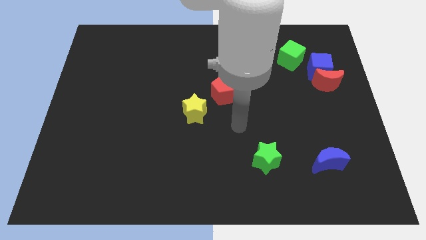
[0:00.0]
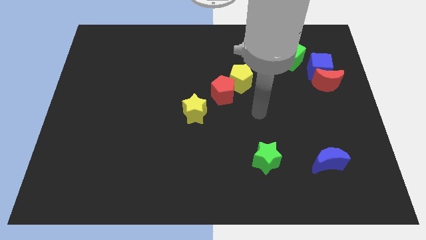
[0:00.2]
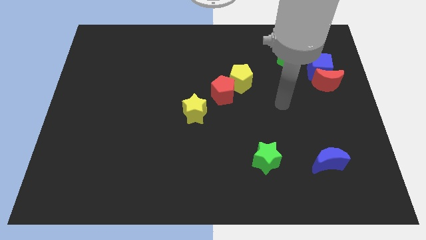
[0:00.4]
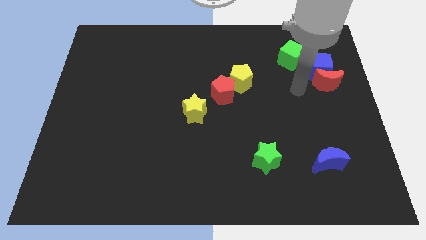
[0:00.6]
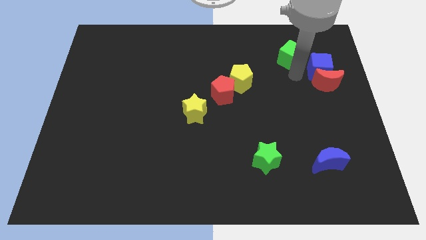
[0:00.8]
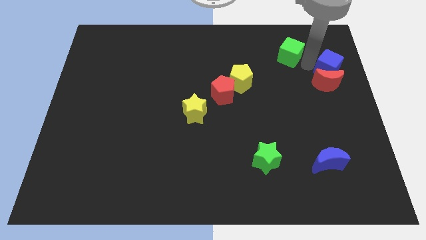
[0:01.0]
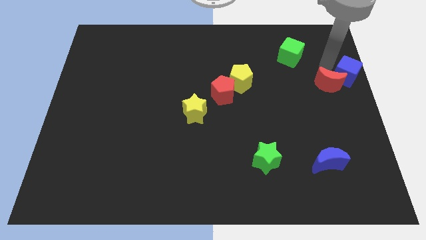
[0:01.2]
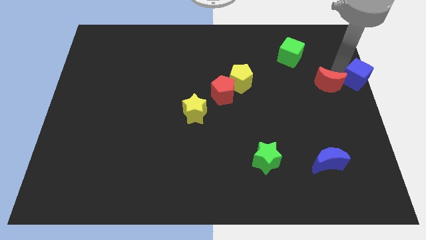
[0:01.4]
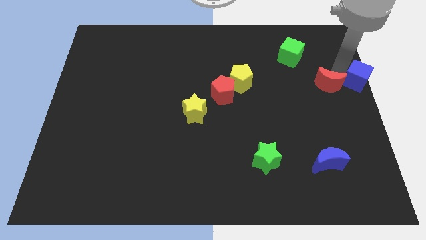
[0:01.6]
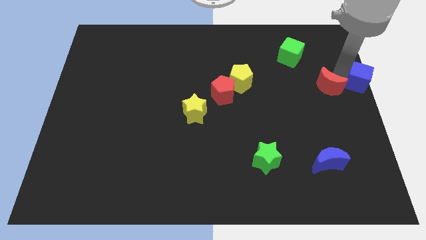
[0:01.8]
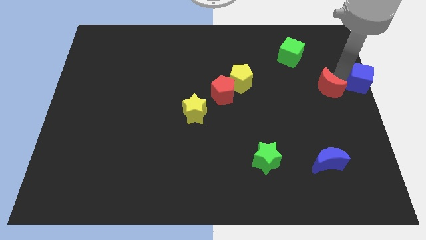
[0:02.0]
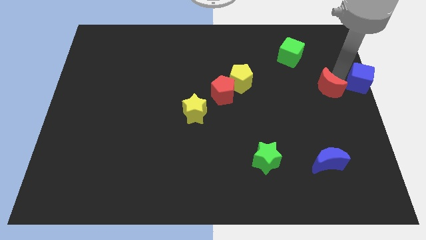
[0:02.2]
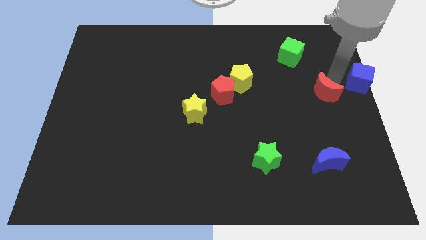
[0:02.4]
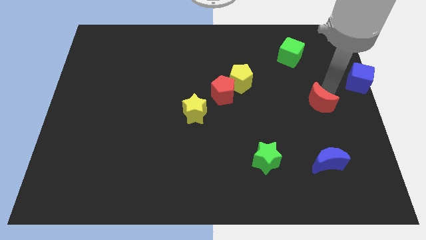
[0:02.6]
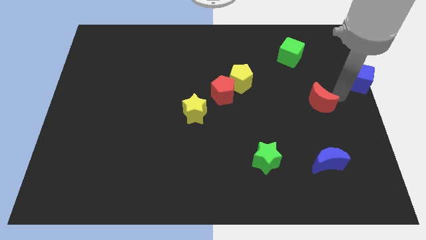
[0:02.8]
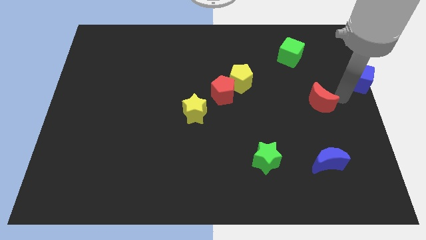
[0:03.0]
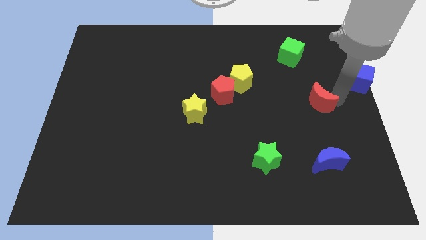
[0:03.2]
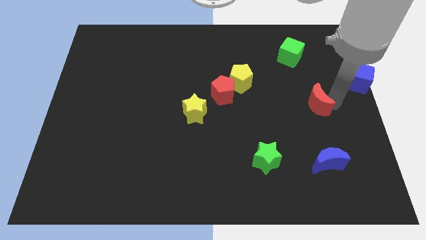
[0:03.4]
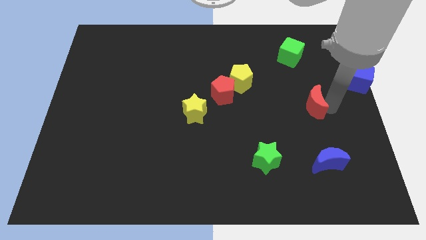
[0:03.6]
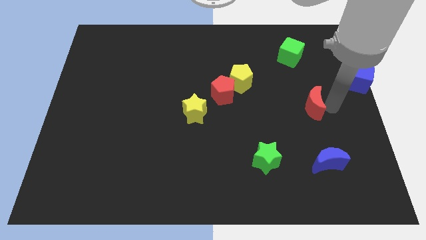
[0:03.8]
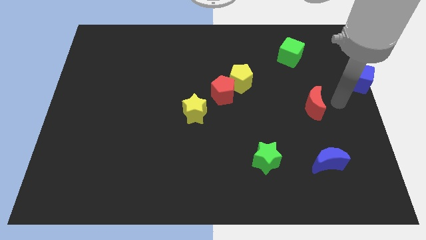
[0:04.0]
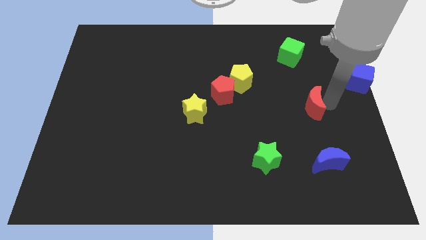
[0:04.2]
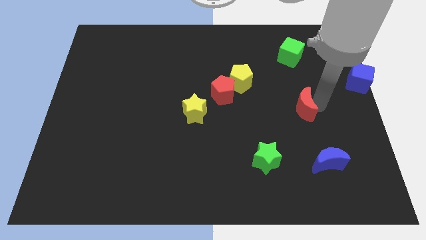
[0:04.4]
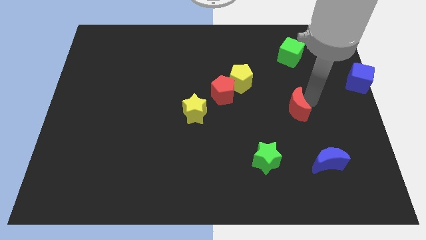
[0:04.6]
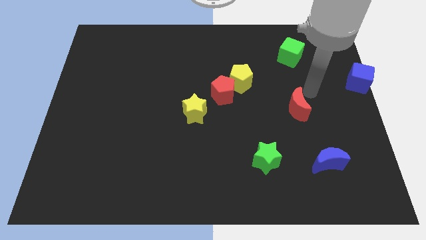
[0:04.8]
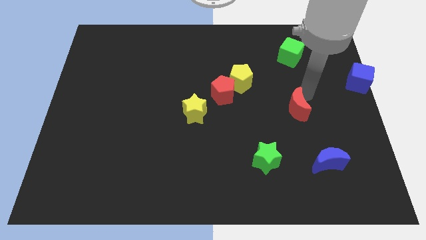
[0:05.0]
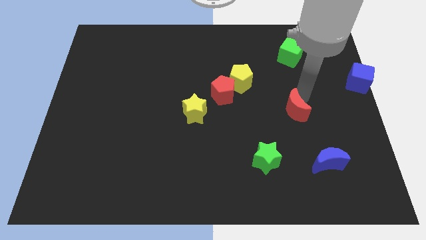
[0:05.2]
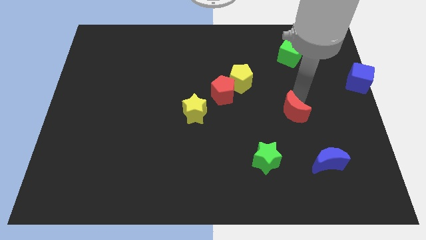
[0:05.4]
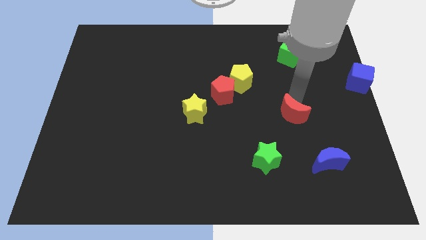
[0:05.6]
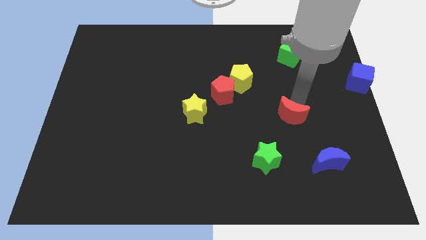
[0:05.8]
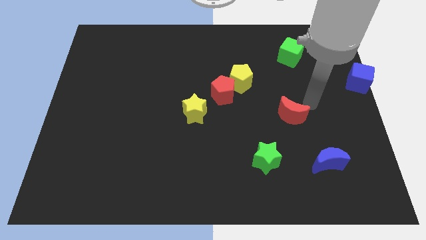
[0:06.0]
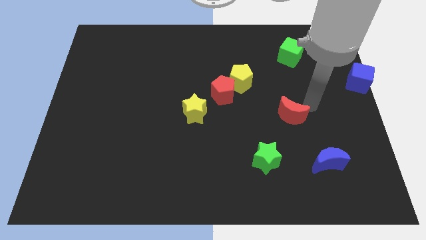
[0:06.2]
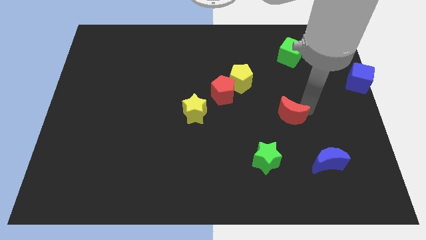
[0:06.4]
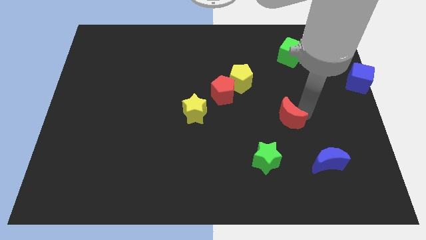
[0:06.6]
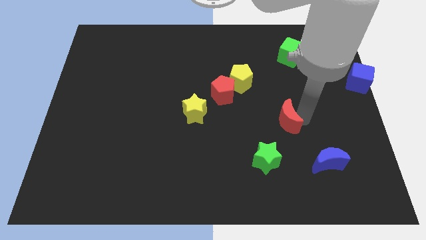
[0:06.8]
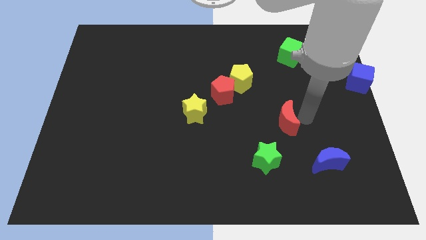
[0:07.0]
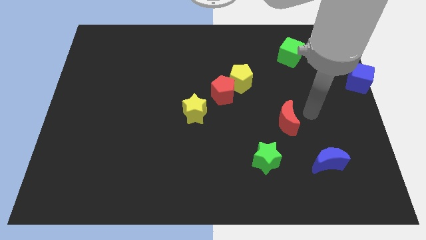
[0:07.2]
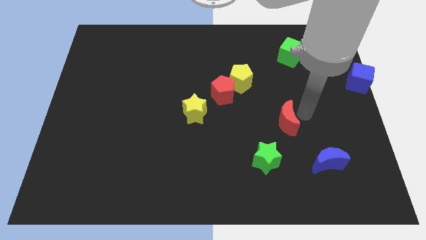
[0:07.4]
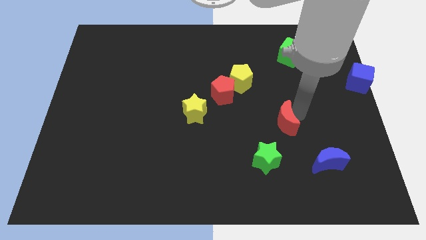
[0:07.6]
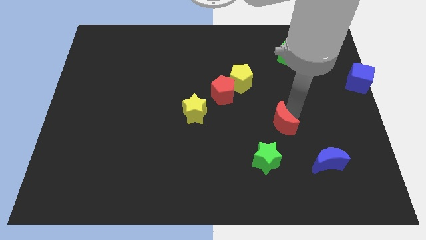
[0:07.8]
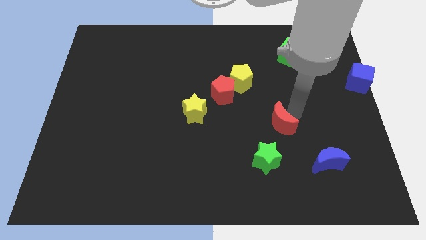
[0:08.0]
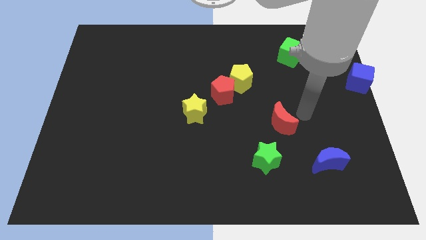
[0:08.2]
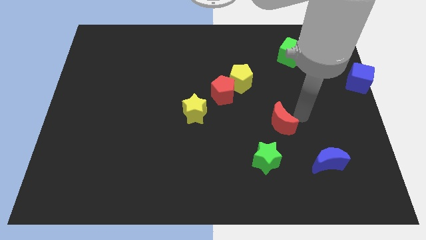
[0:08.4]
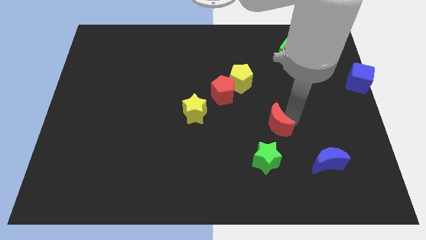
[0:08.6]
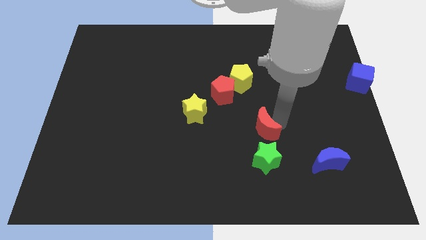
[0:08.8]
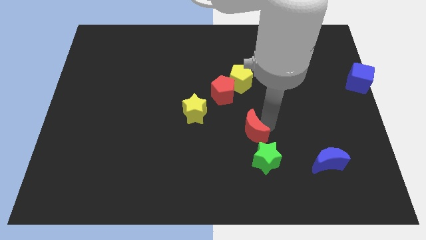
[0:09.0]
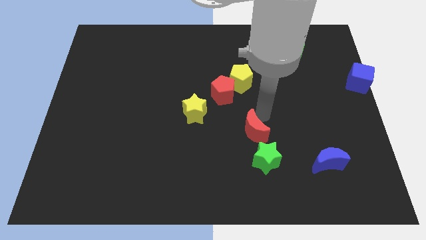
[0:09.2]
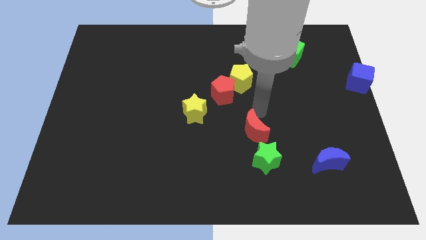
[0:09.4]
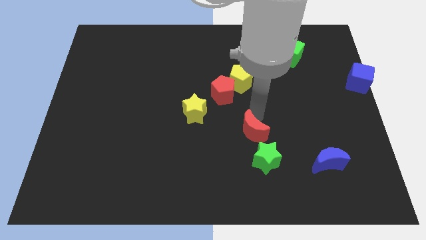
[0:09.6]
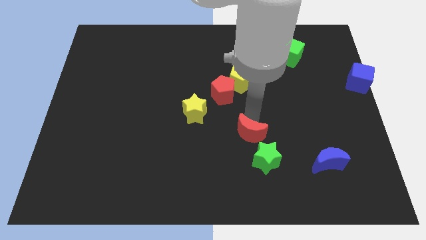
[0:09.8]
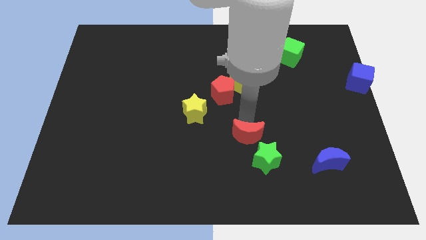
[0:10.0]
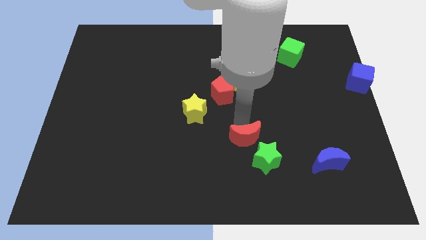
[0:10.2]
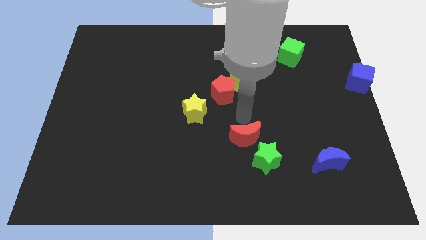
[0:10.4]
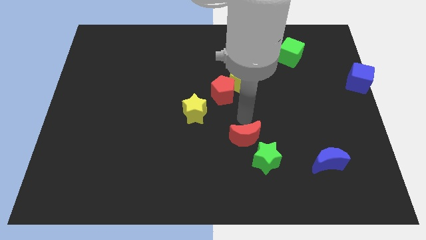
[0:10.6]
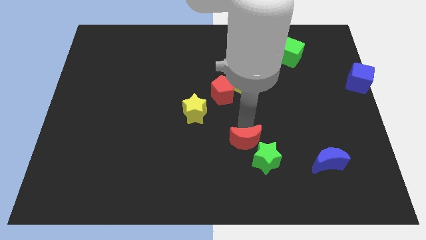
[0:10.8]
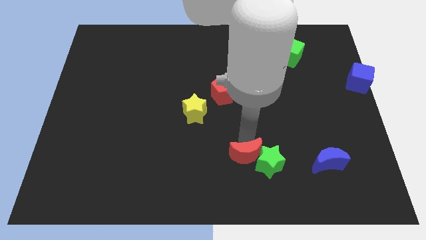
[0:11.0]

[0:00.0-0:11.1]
put the red moon to the bottom left of the green star

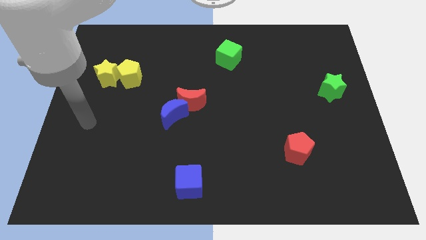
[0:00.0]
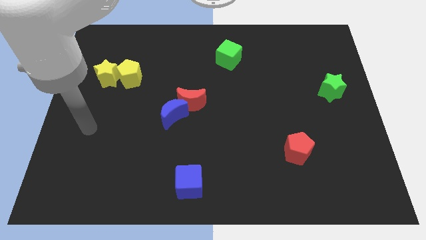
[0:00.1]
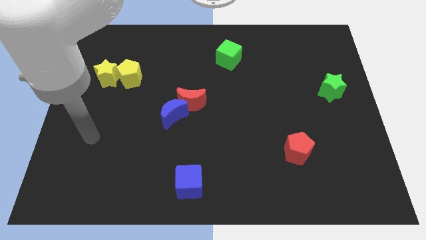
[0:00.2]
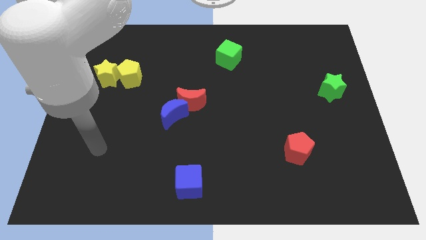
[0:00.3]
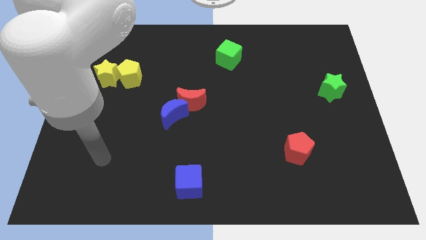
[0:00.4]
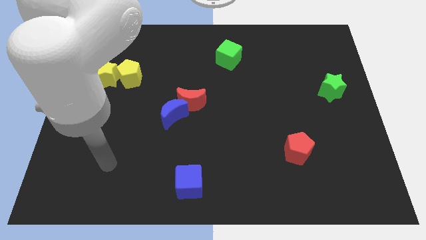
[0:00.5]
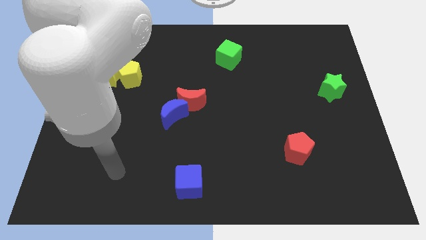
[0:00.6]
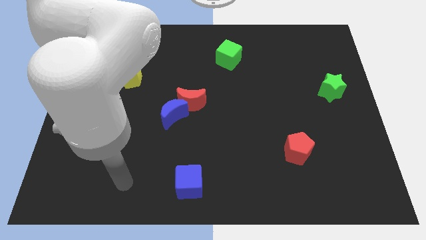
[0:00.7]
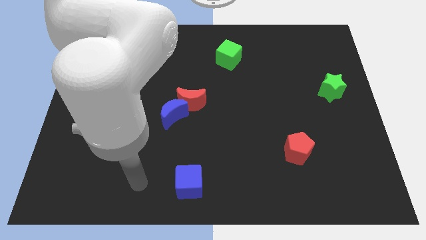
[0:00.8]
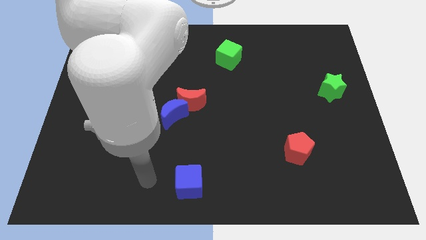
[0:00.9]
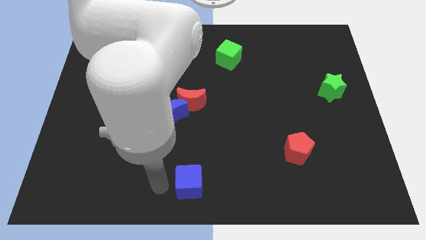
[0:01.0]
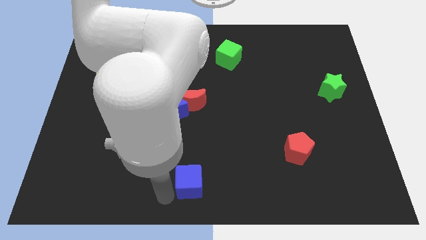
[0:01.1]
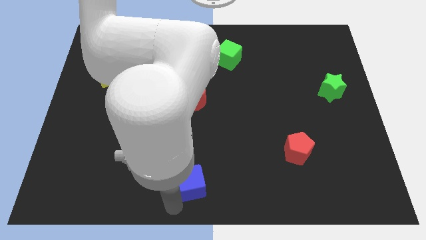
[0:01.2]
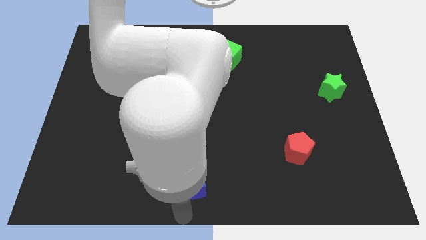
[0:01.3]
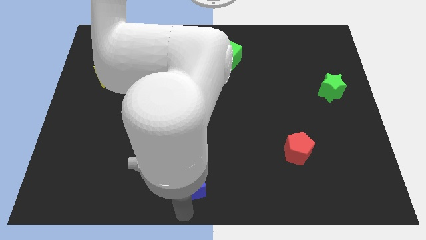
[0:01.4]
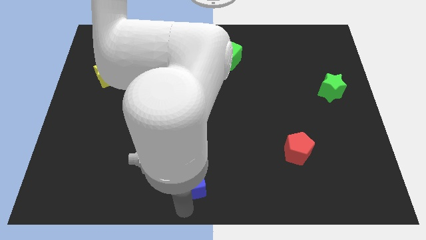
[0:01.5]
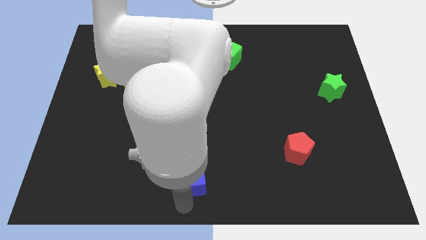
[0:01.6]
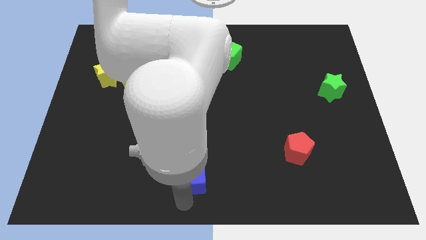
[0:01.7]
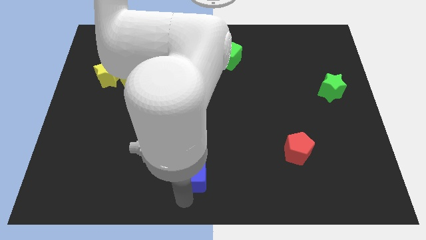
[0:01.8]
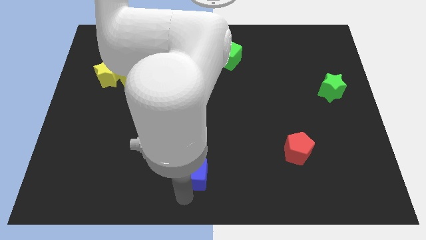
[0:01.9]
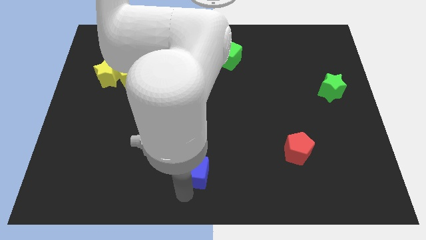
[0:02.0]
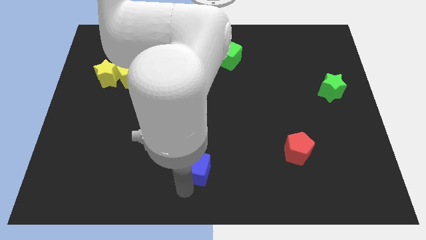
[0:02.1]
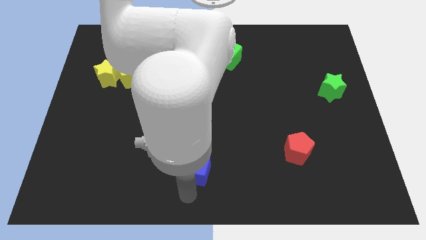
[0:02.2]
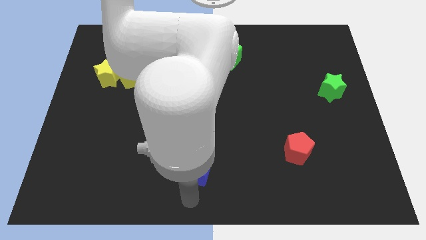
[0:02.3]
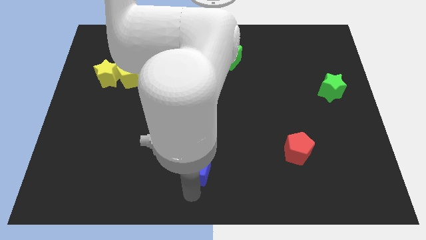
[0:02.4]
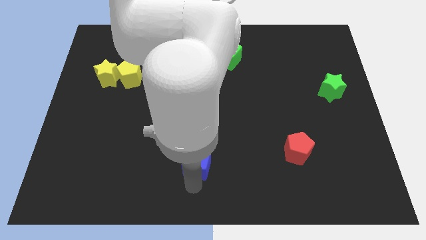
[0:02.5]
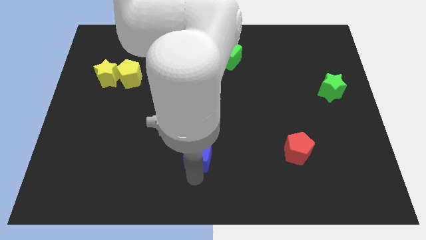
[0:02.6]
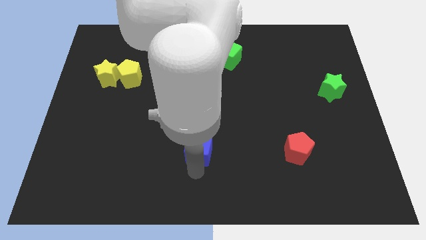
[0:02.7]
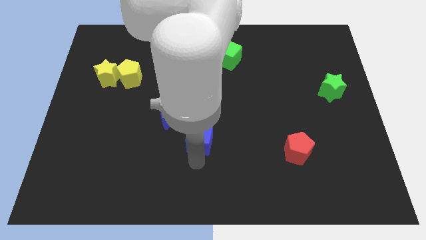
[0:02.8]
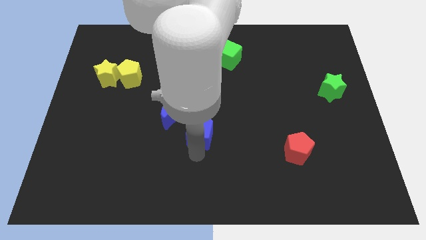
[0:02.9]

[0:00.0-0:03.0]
put the blue cube to the bottom right side of the red moon
